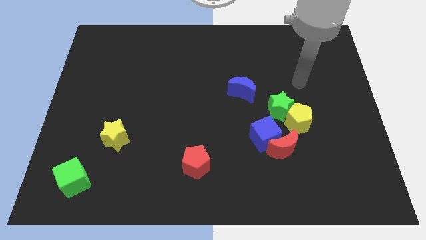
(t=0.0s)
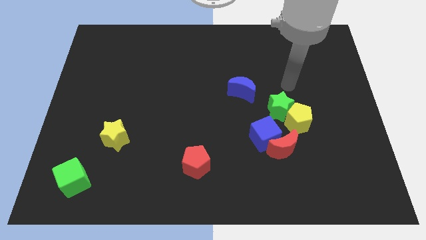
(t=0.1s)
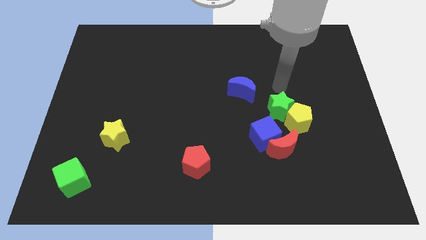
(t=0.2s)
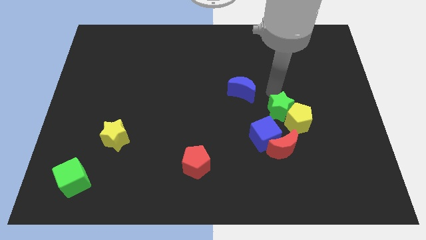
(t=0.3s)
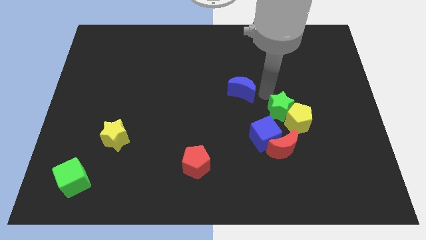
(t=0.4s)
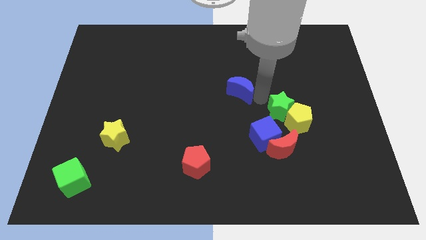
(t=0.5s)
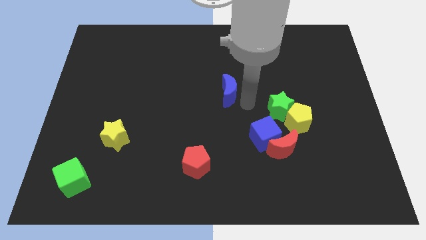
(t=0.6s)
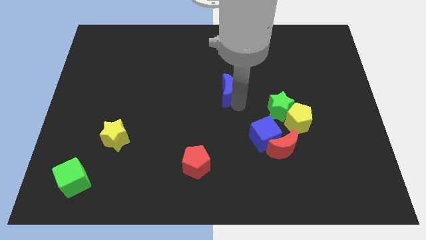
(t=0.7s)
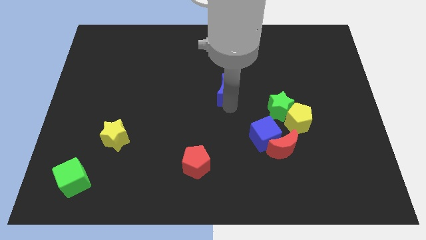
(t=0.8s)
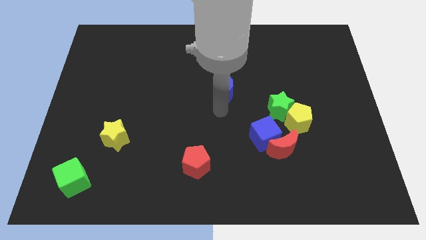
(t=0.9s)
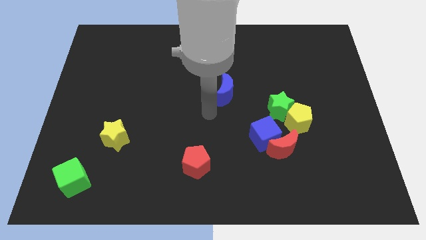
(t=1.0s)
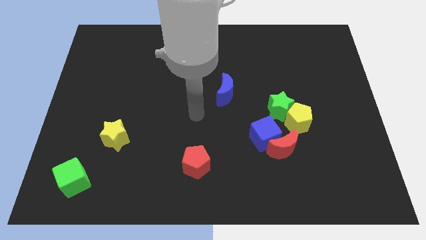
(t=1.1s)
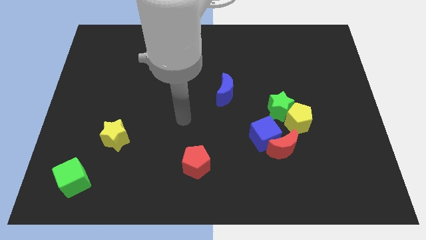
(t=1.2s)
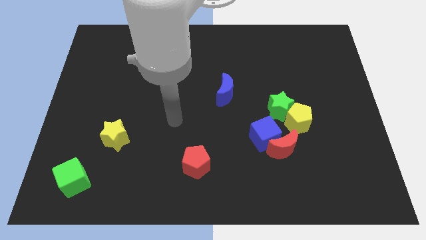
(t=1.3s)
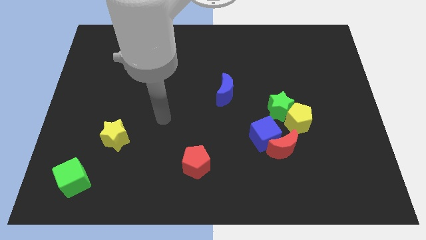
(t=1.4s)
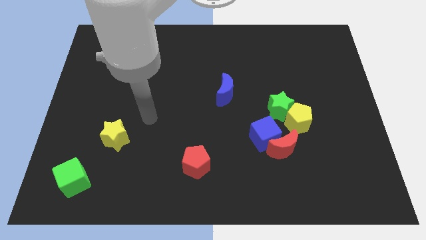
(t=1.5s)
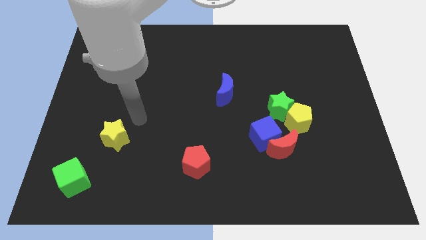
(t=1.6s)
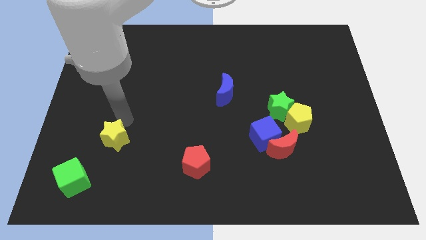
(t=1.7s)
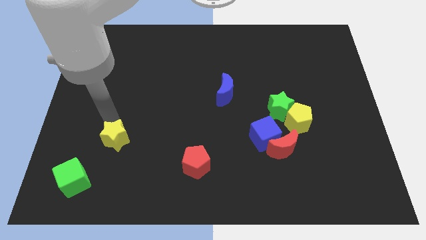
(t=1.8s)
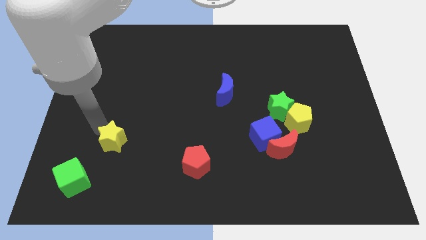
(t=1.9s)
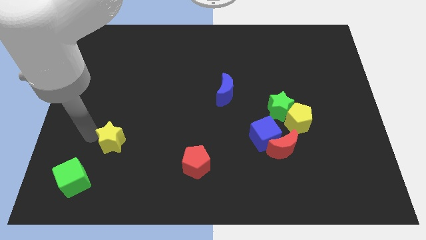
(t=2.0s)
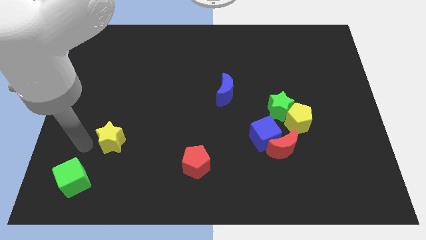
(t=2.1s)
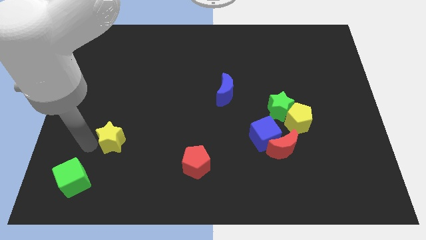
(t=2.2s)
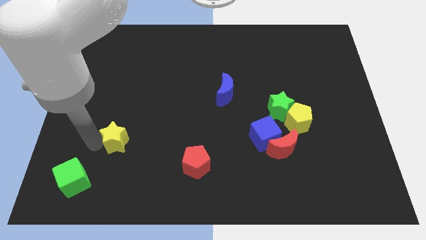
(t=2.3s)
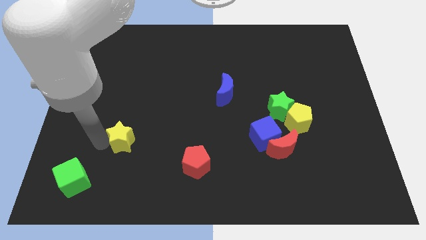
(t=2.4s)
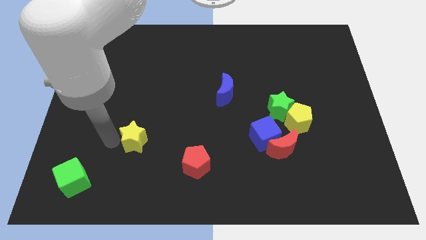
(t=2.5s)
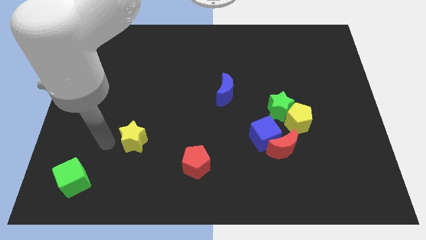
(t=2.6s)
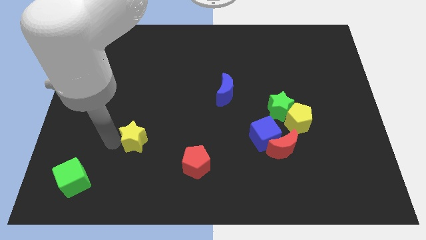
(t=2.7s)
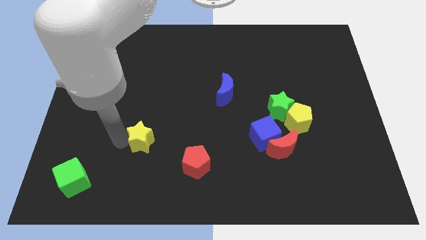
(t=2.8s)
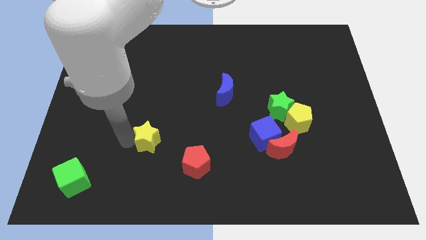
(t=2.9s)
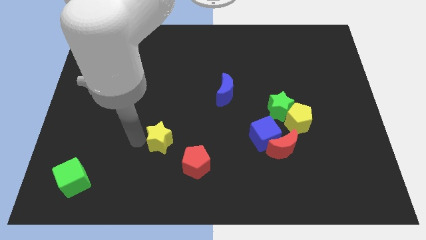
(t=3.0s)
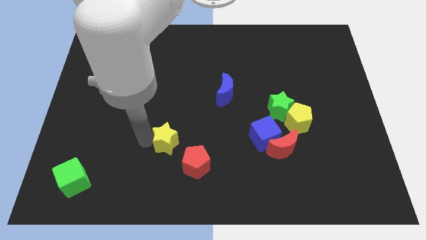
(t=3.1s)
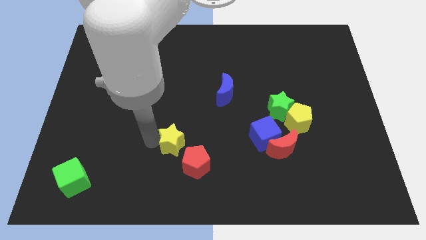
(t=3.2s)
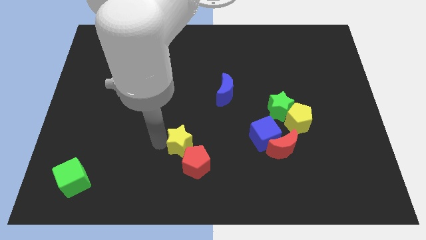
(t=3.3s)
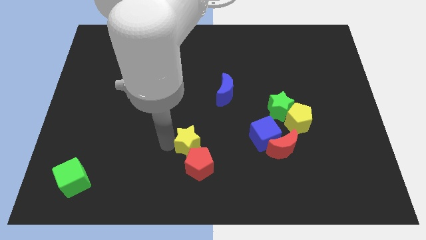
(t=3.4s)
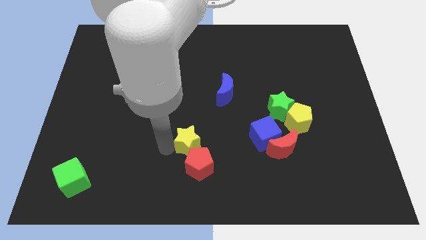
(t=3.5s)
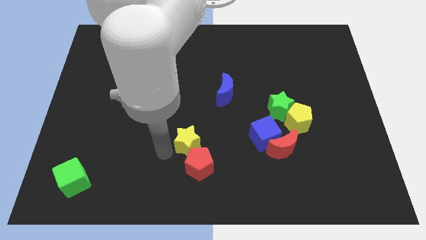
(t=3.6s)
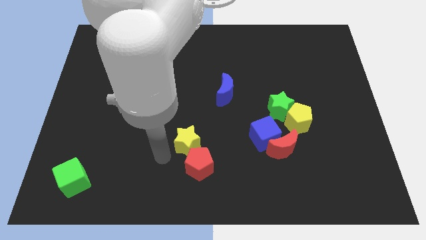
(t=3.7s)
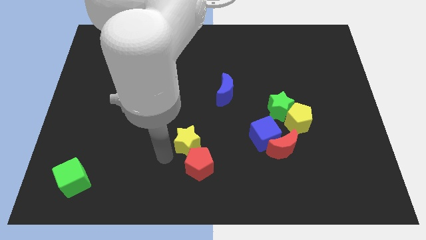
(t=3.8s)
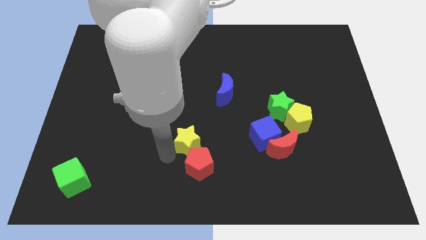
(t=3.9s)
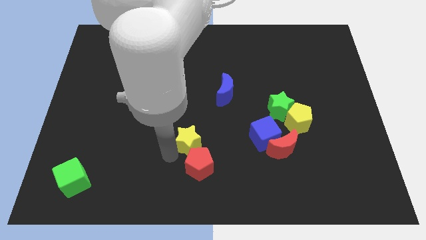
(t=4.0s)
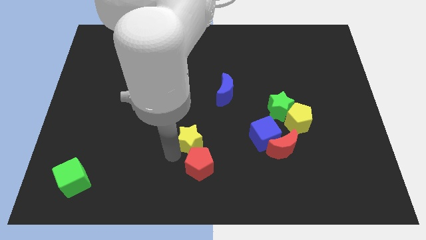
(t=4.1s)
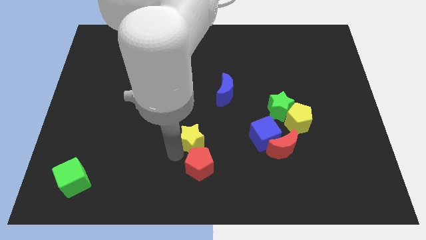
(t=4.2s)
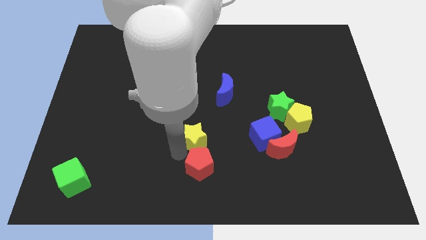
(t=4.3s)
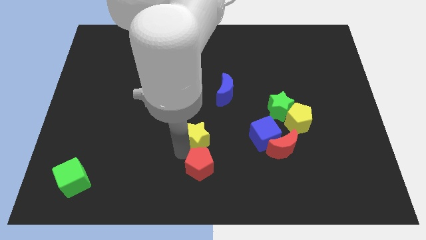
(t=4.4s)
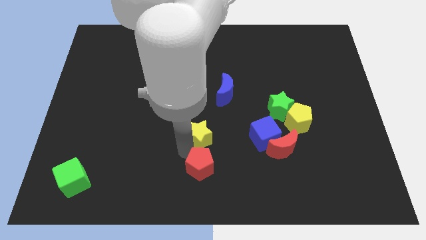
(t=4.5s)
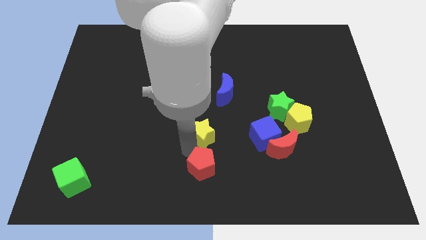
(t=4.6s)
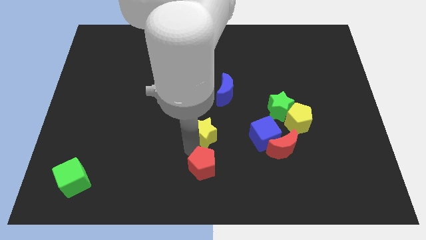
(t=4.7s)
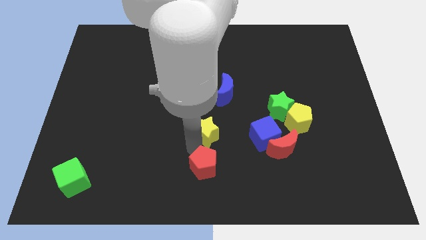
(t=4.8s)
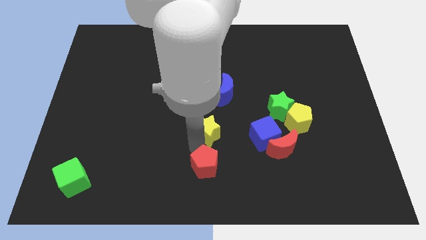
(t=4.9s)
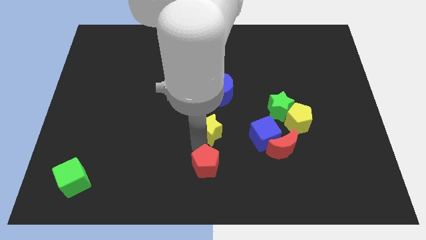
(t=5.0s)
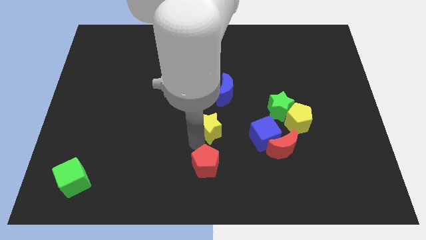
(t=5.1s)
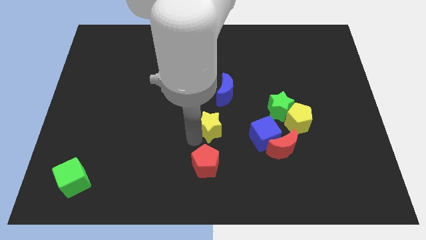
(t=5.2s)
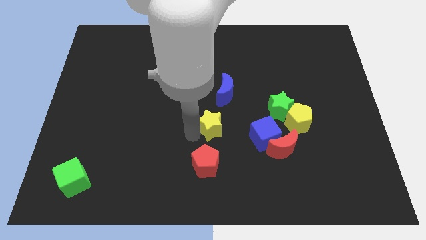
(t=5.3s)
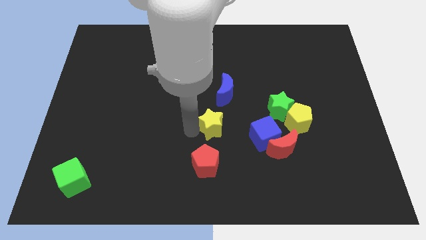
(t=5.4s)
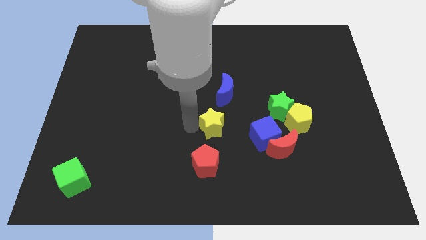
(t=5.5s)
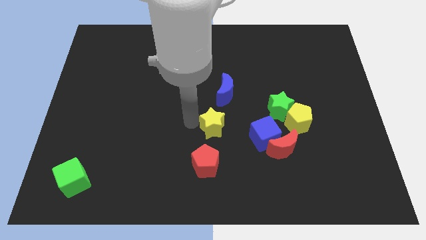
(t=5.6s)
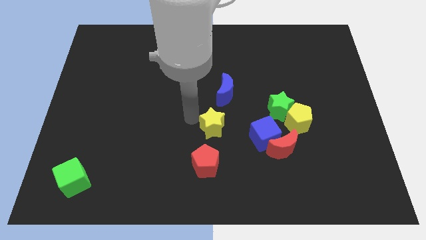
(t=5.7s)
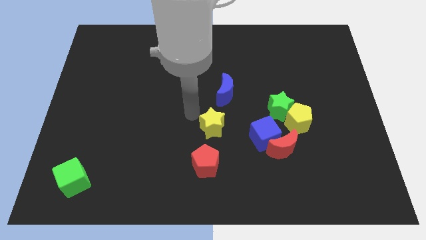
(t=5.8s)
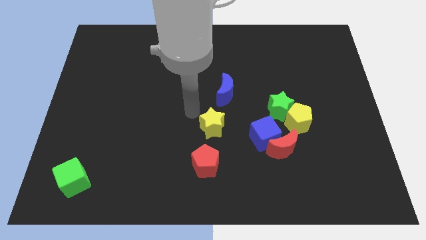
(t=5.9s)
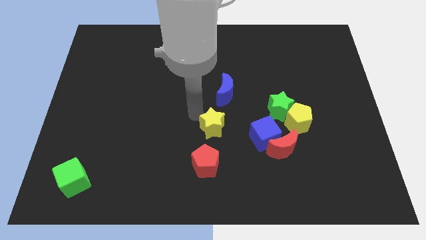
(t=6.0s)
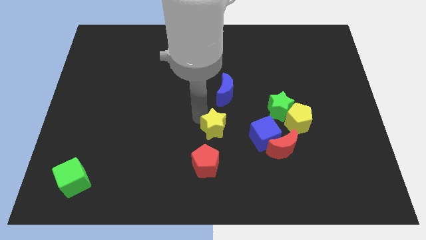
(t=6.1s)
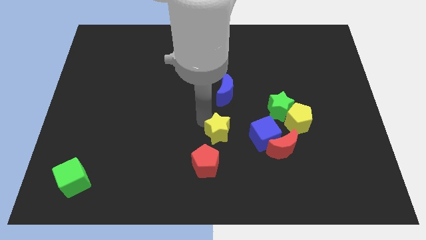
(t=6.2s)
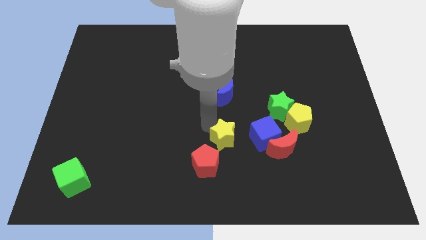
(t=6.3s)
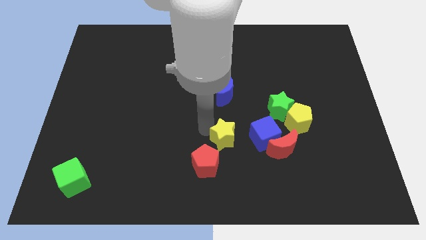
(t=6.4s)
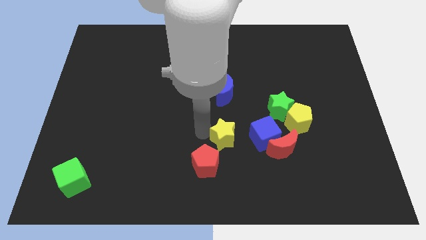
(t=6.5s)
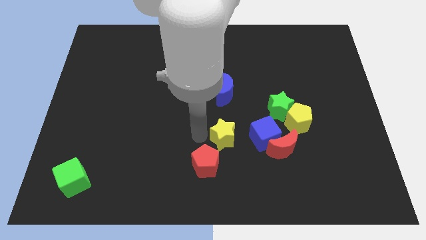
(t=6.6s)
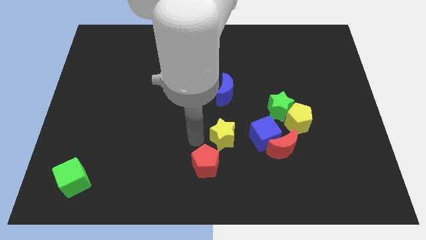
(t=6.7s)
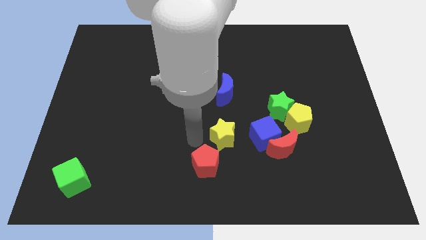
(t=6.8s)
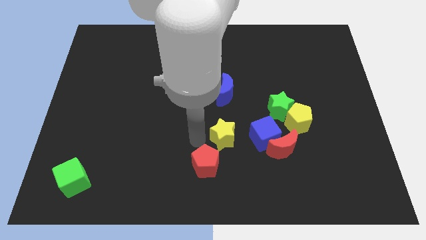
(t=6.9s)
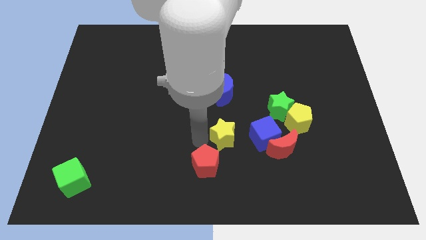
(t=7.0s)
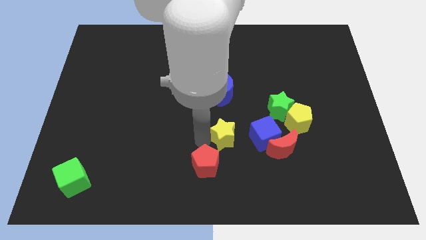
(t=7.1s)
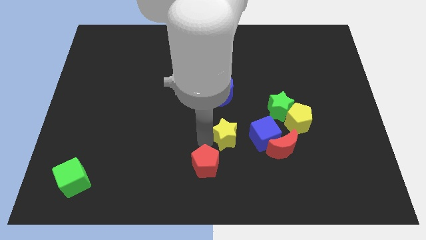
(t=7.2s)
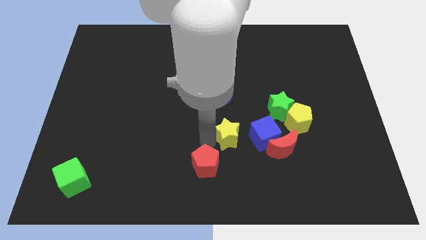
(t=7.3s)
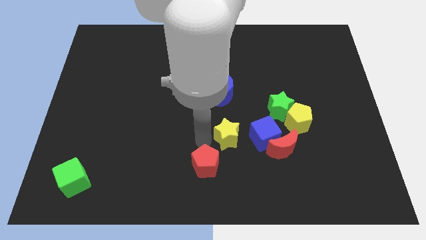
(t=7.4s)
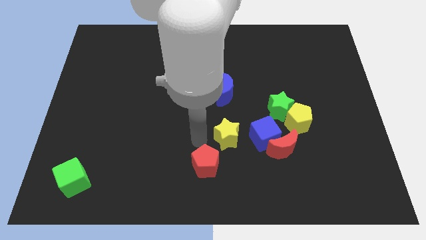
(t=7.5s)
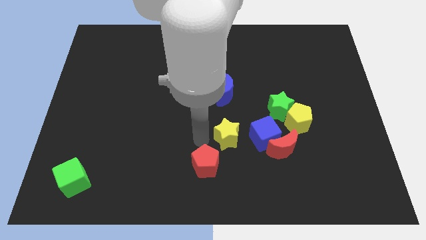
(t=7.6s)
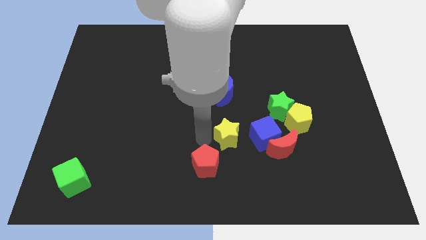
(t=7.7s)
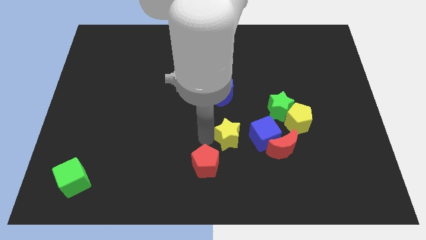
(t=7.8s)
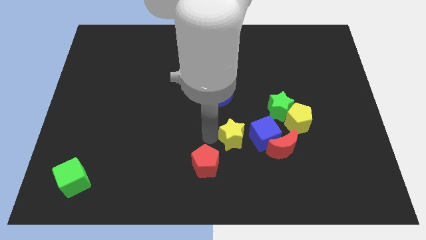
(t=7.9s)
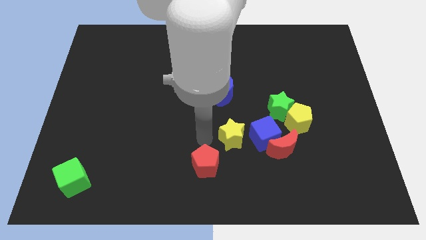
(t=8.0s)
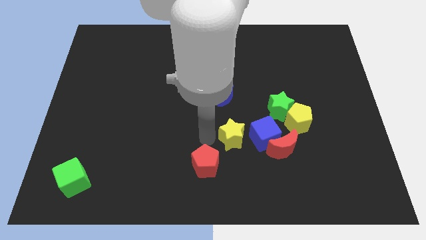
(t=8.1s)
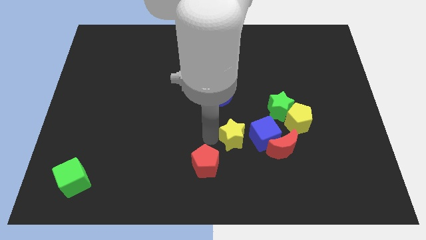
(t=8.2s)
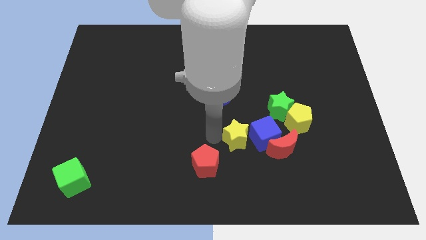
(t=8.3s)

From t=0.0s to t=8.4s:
push the yellow star towards the blue cube
